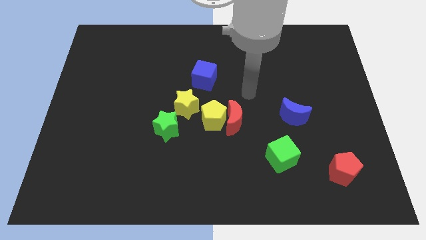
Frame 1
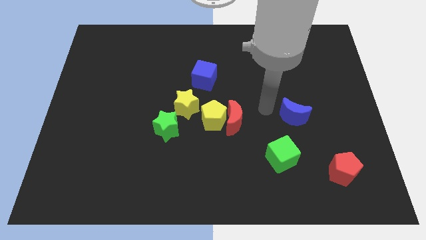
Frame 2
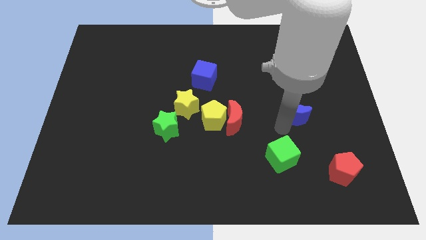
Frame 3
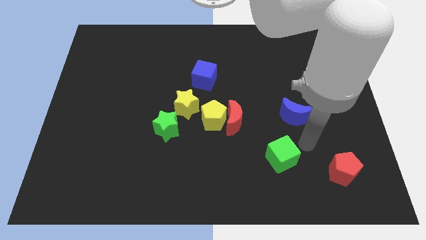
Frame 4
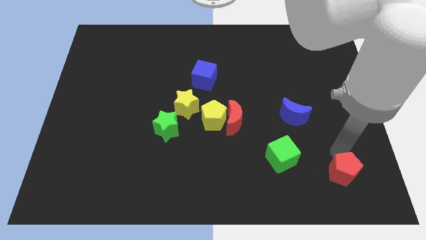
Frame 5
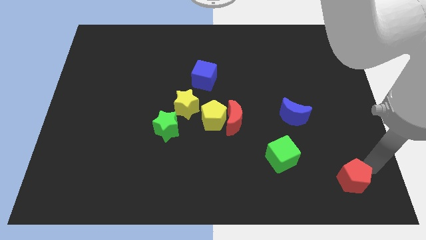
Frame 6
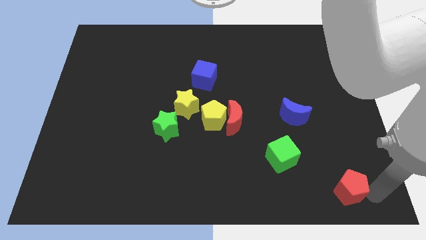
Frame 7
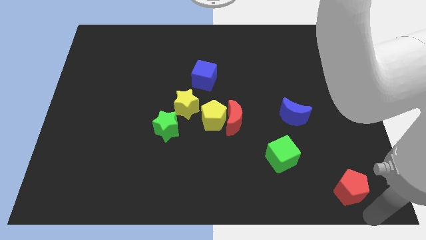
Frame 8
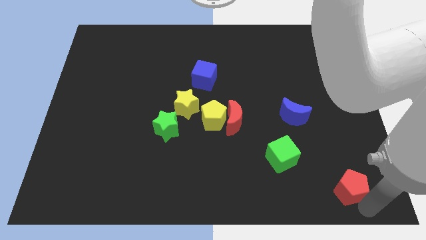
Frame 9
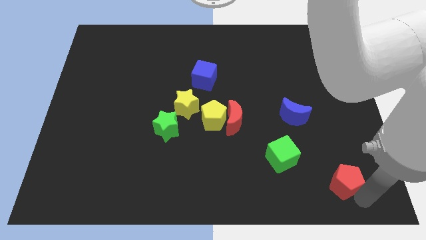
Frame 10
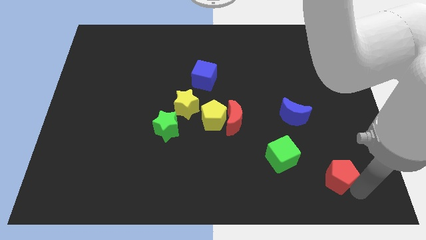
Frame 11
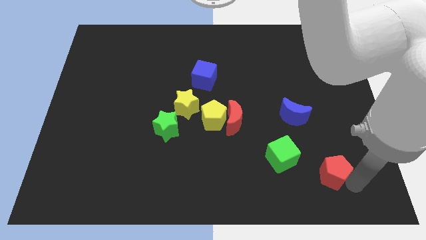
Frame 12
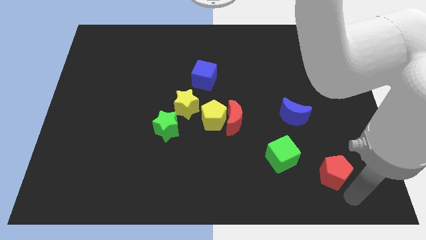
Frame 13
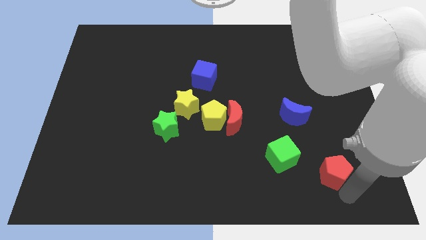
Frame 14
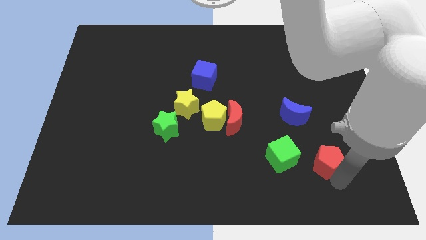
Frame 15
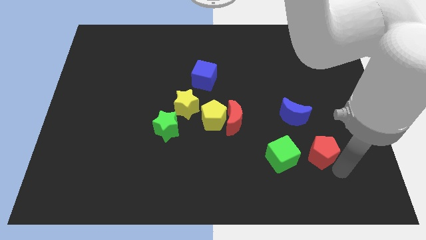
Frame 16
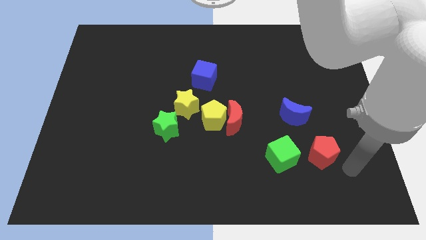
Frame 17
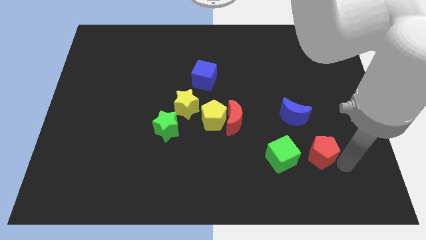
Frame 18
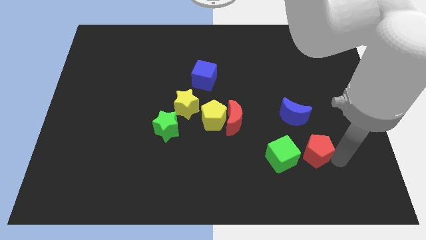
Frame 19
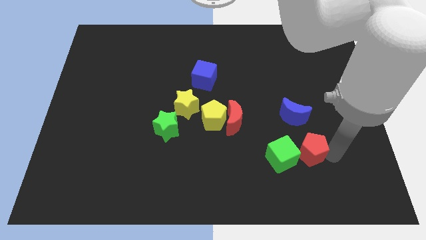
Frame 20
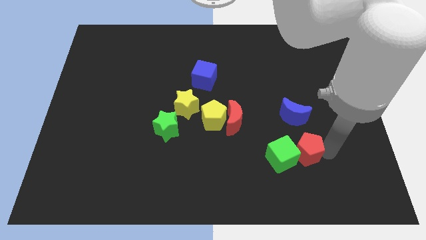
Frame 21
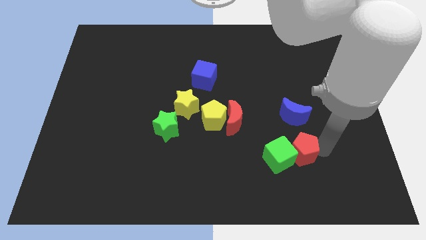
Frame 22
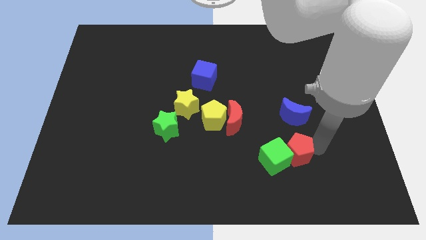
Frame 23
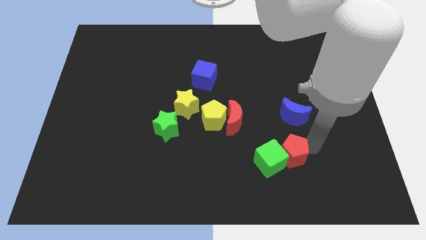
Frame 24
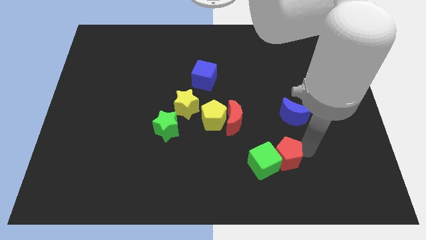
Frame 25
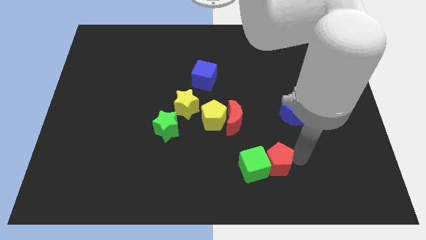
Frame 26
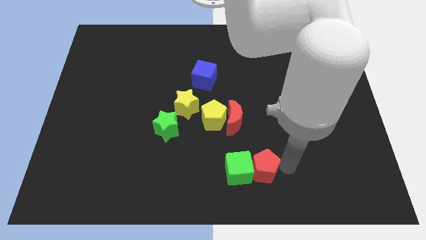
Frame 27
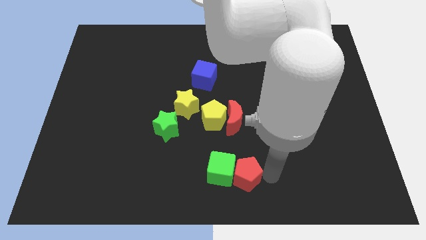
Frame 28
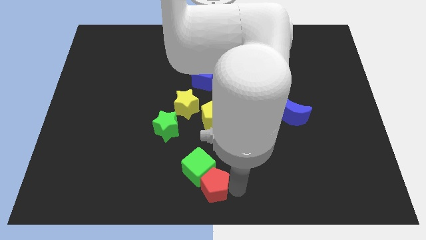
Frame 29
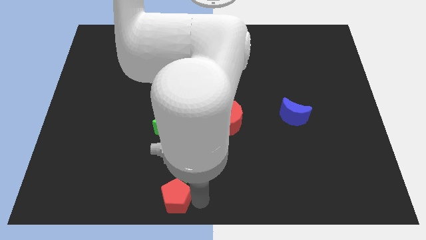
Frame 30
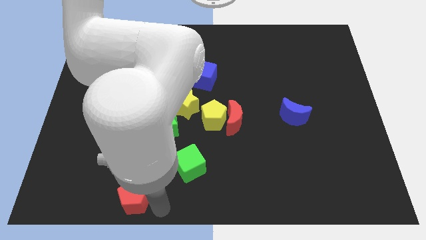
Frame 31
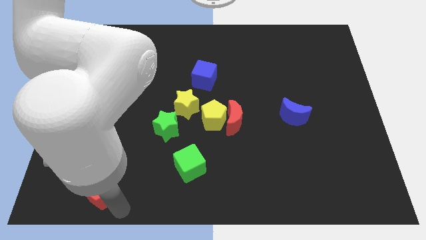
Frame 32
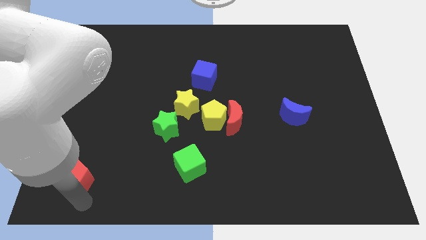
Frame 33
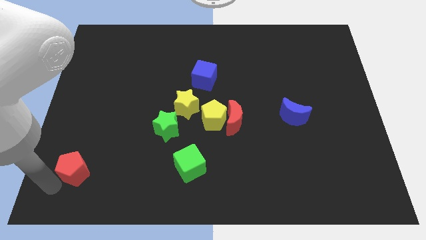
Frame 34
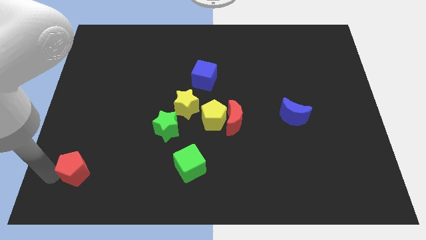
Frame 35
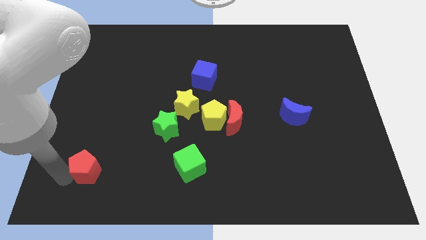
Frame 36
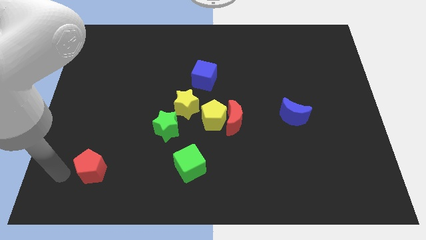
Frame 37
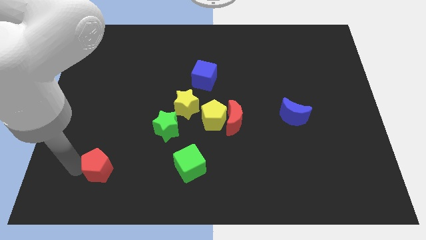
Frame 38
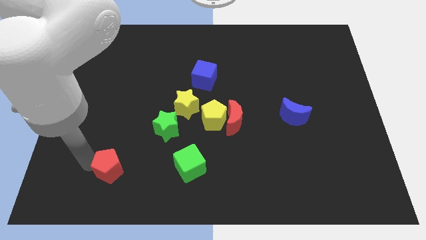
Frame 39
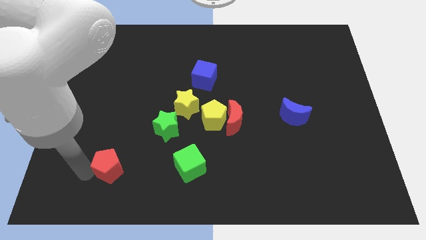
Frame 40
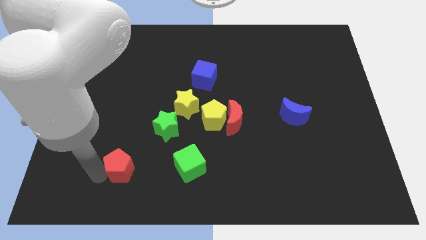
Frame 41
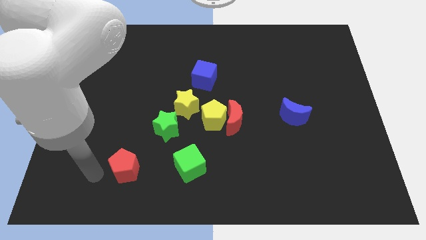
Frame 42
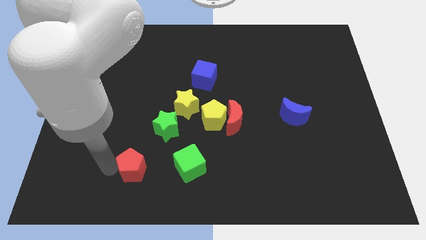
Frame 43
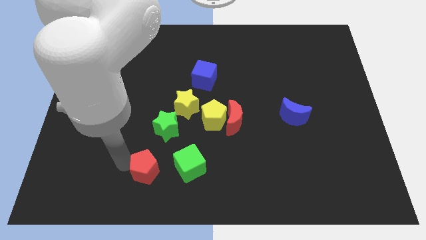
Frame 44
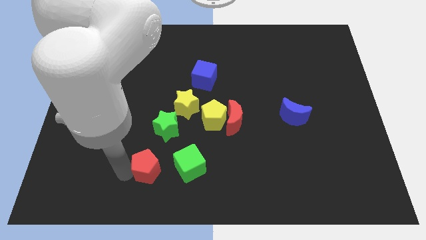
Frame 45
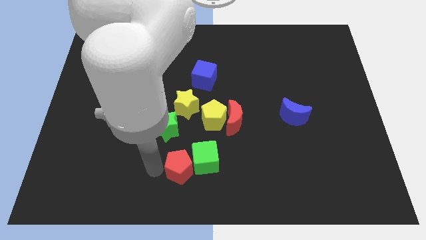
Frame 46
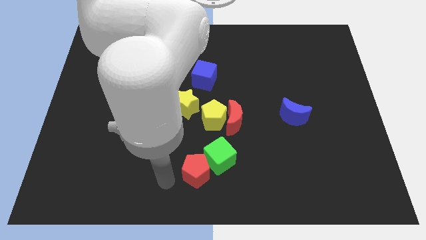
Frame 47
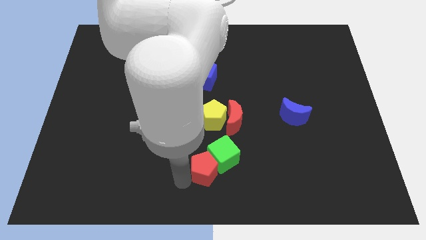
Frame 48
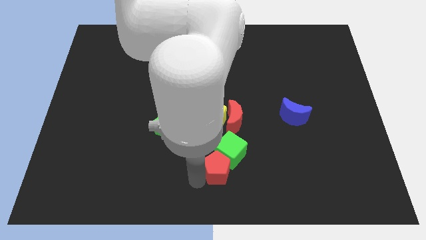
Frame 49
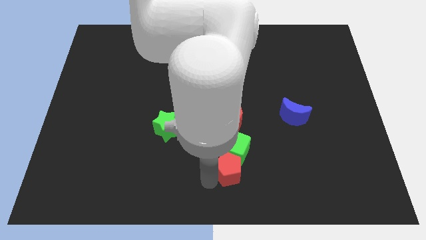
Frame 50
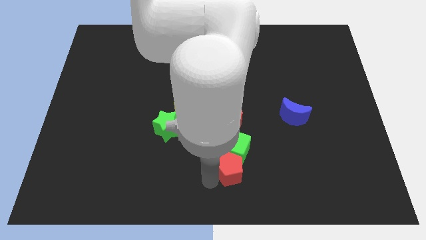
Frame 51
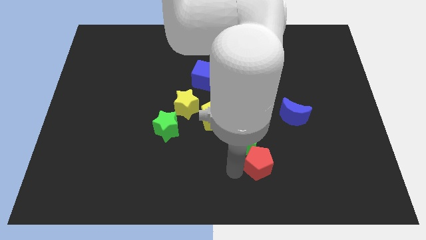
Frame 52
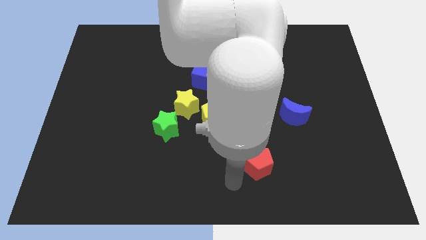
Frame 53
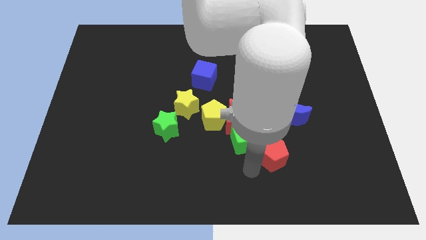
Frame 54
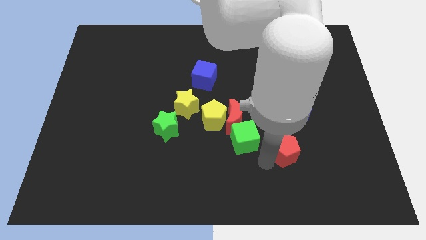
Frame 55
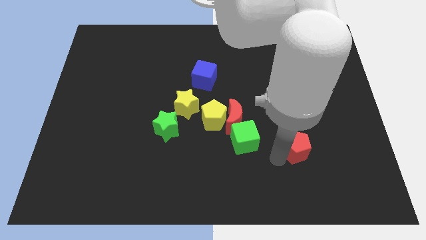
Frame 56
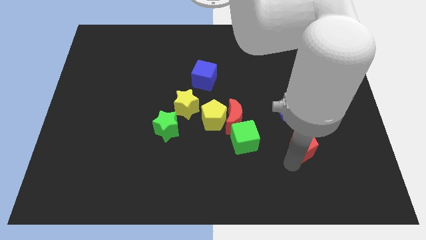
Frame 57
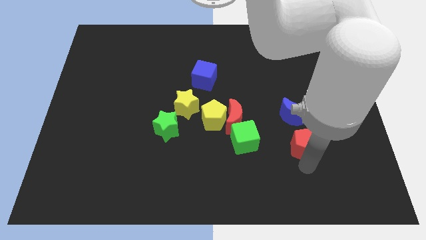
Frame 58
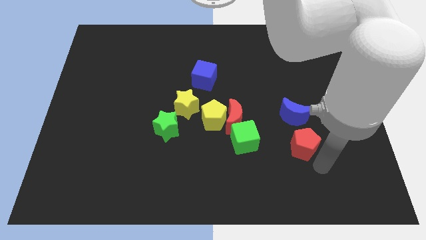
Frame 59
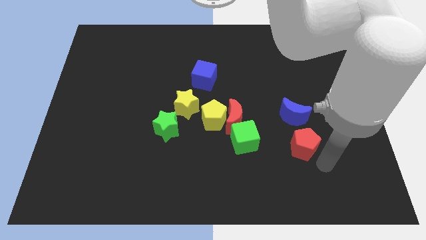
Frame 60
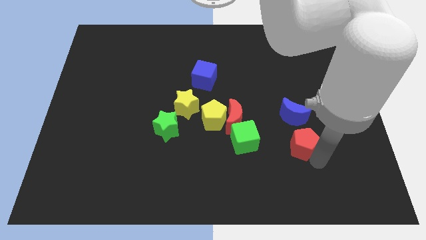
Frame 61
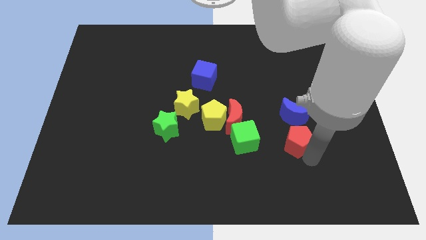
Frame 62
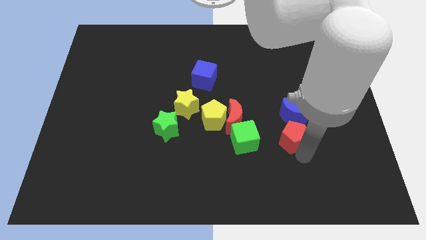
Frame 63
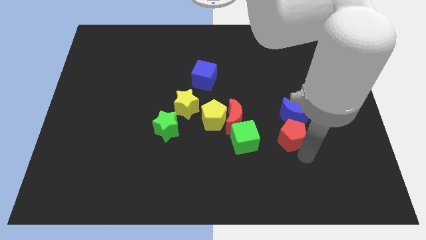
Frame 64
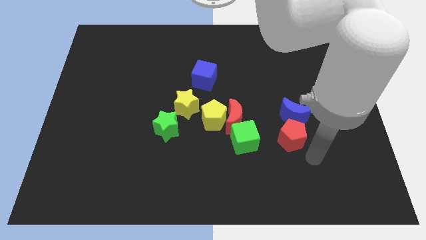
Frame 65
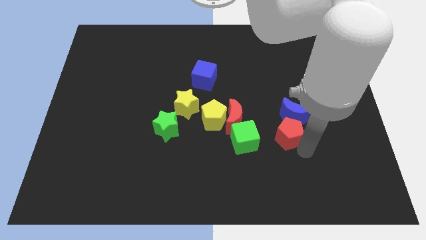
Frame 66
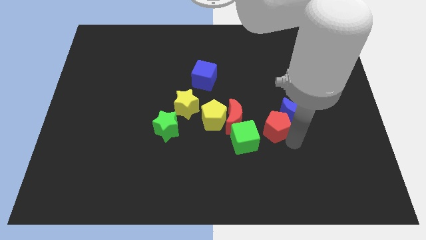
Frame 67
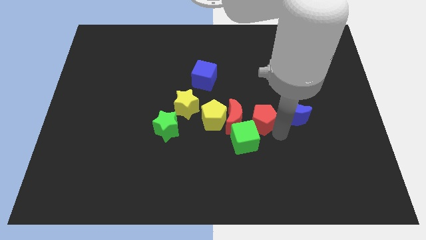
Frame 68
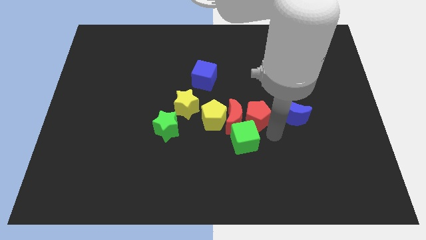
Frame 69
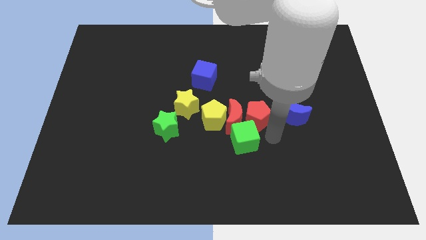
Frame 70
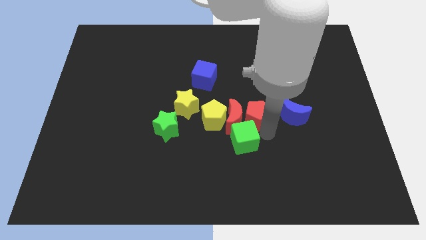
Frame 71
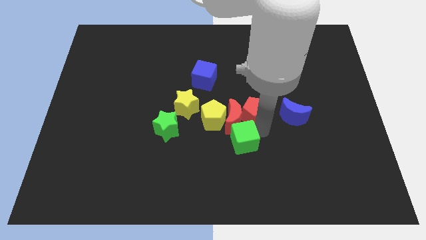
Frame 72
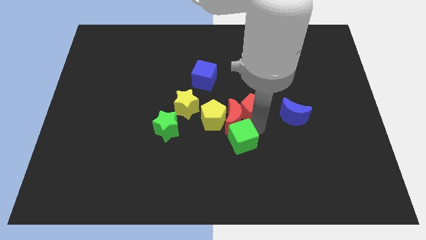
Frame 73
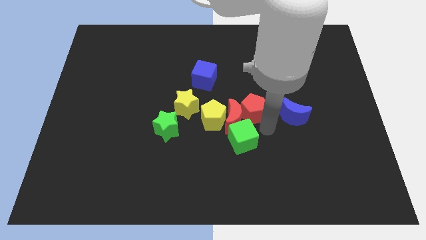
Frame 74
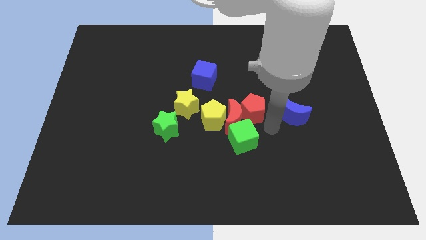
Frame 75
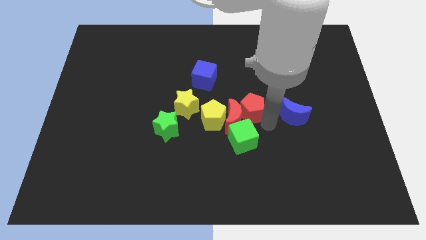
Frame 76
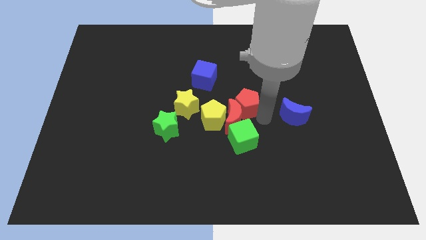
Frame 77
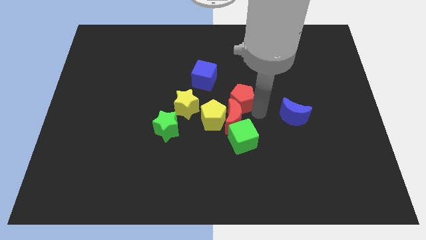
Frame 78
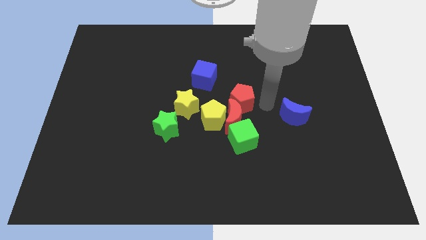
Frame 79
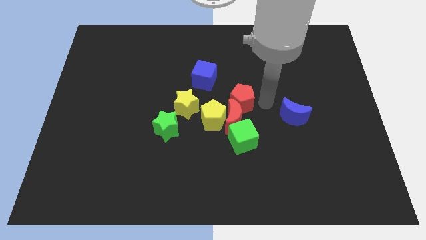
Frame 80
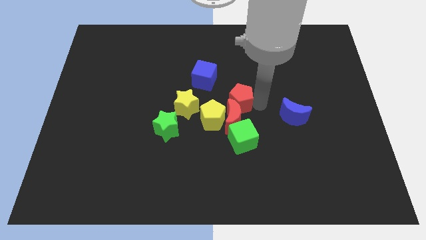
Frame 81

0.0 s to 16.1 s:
move the red pentagon diagonally up and to the left of the red moon
